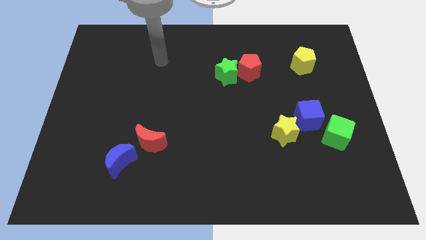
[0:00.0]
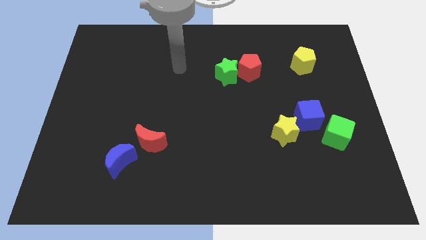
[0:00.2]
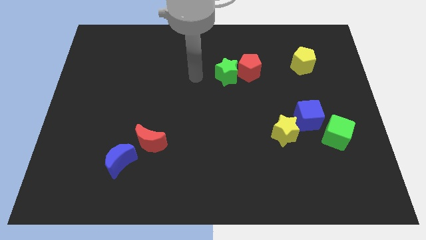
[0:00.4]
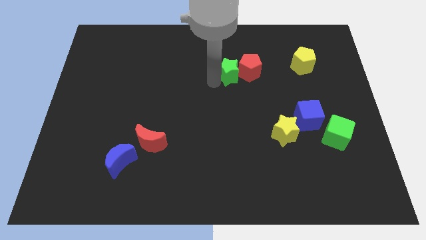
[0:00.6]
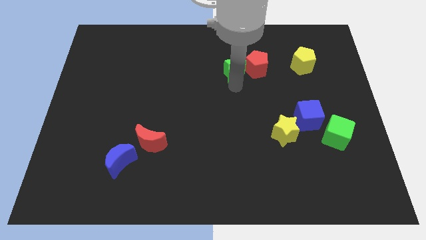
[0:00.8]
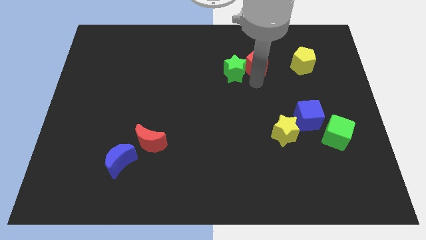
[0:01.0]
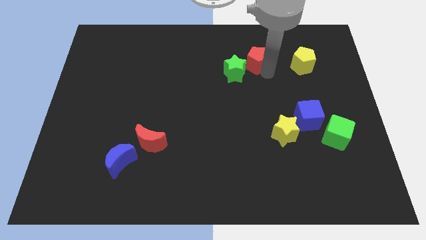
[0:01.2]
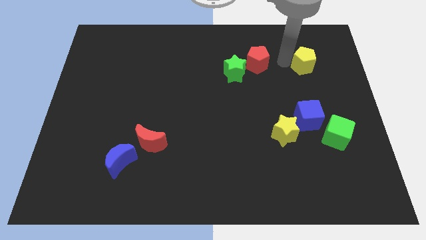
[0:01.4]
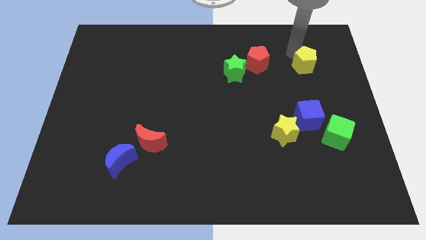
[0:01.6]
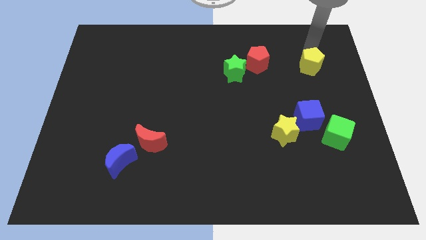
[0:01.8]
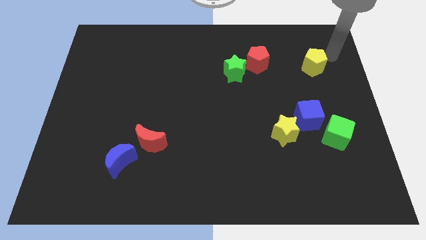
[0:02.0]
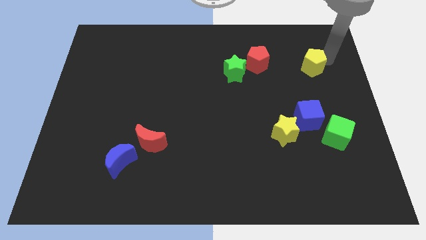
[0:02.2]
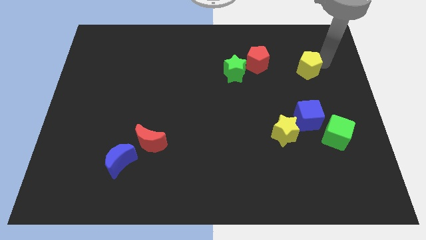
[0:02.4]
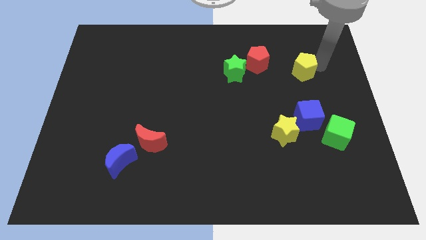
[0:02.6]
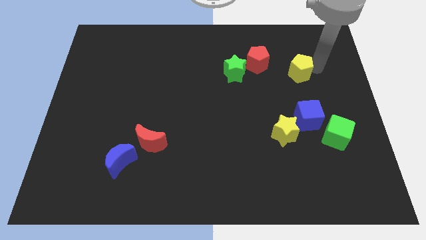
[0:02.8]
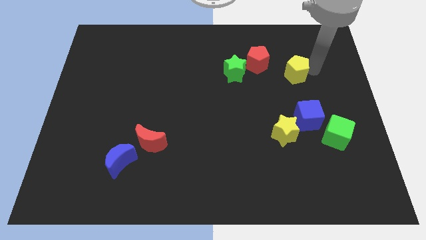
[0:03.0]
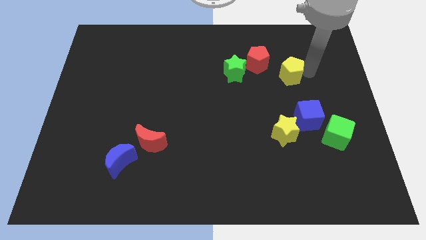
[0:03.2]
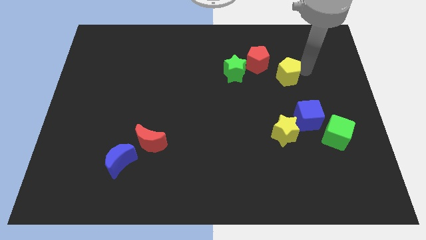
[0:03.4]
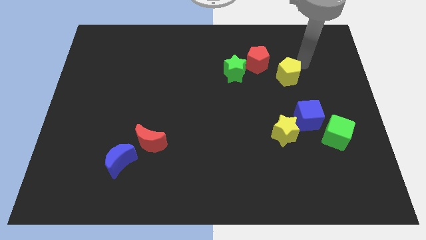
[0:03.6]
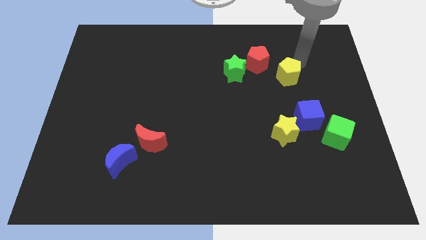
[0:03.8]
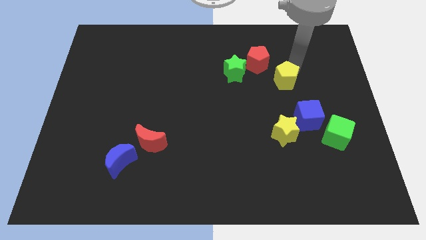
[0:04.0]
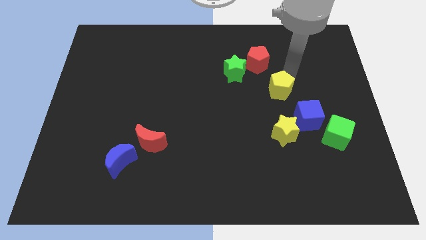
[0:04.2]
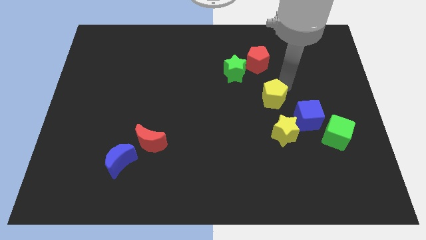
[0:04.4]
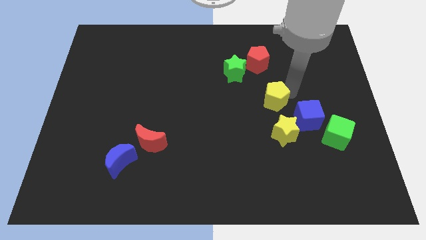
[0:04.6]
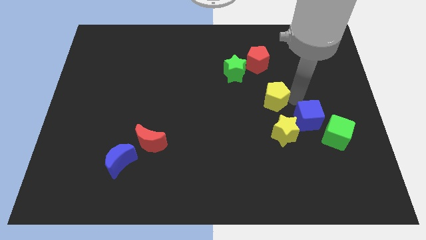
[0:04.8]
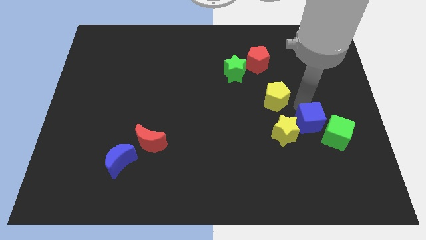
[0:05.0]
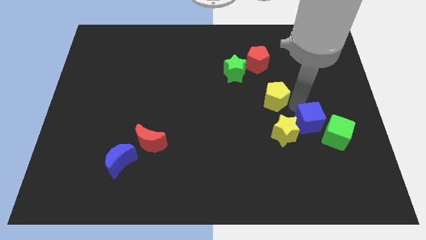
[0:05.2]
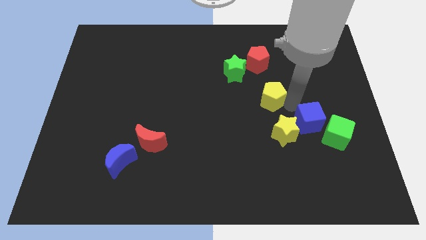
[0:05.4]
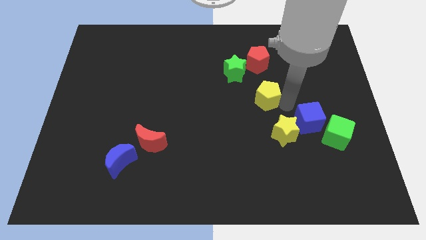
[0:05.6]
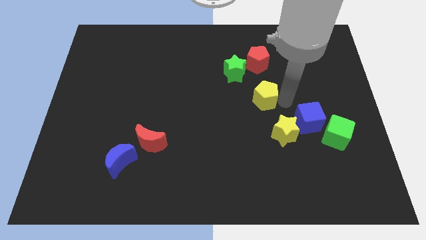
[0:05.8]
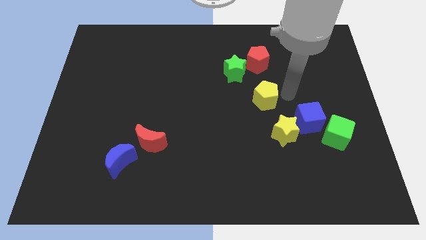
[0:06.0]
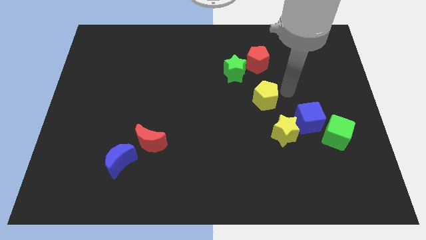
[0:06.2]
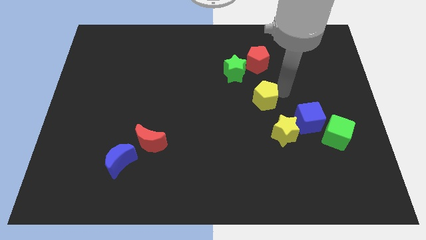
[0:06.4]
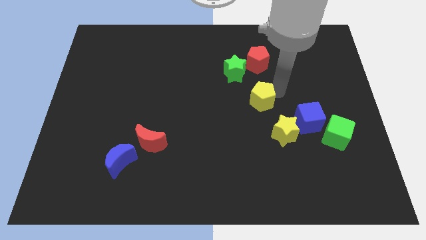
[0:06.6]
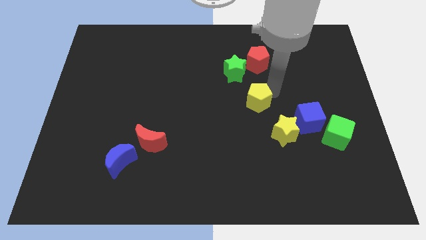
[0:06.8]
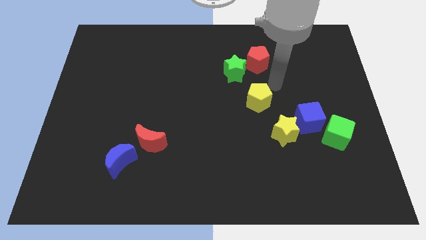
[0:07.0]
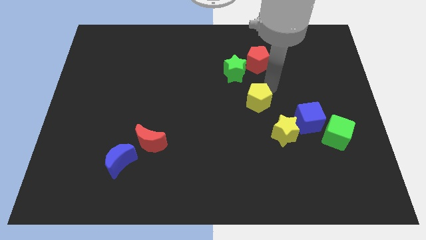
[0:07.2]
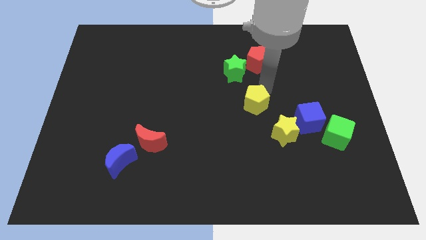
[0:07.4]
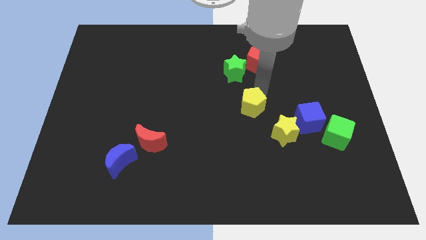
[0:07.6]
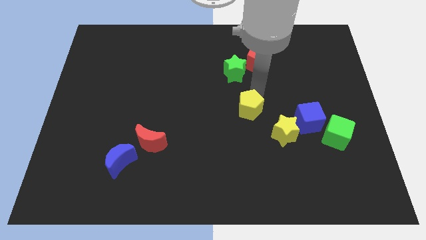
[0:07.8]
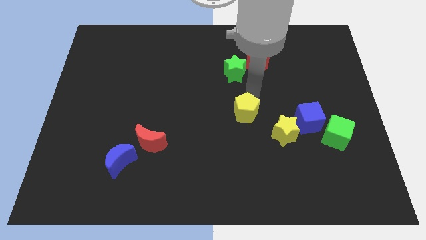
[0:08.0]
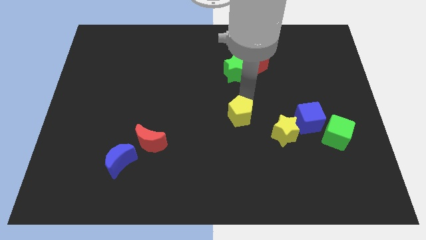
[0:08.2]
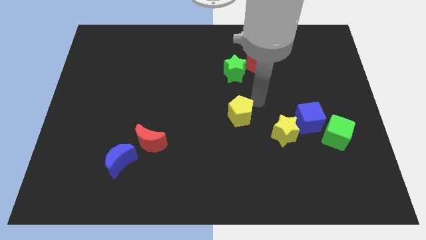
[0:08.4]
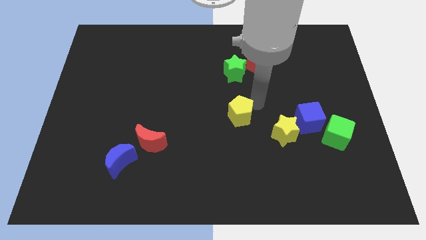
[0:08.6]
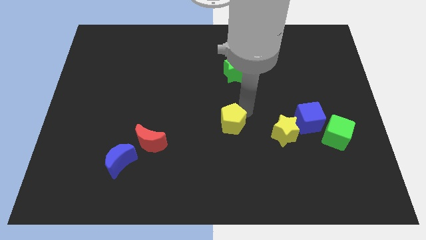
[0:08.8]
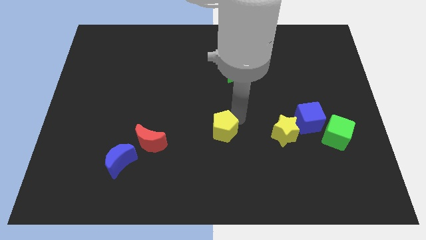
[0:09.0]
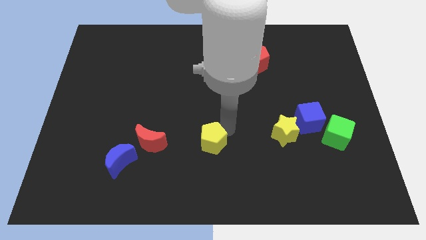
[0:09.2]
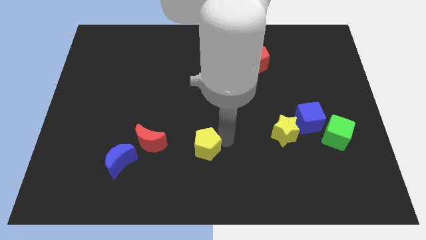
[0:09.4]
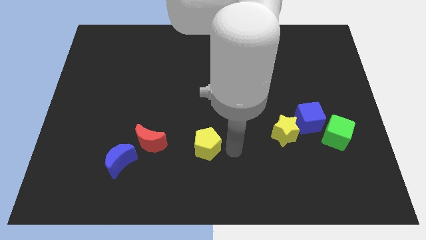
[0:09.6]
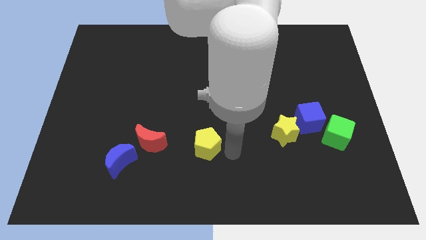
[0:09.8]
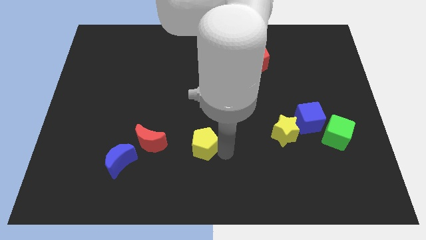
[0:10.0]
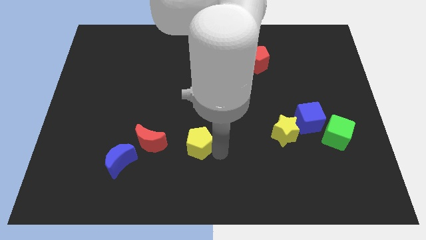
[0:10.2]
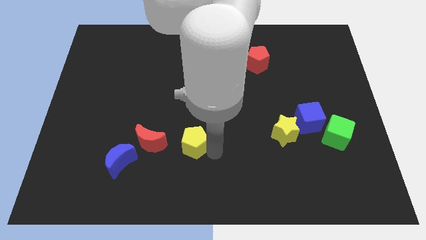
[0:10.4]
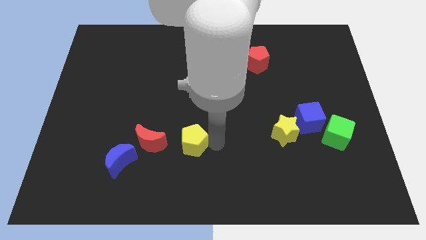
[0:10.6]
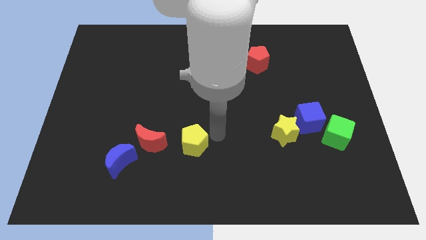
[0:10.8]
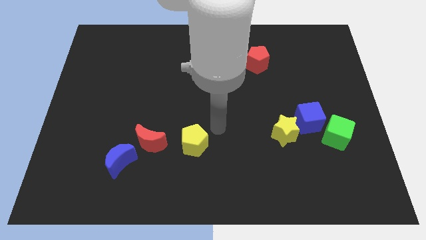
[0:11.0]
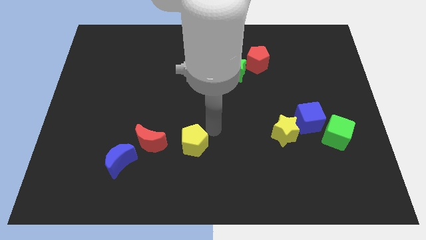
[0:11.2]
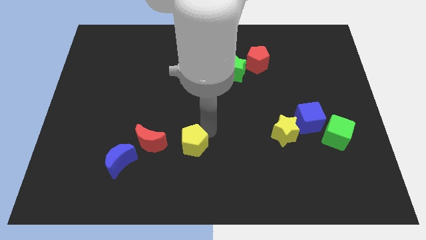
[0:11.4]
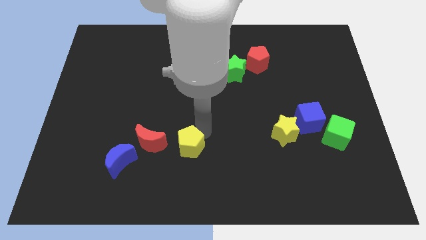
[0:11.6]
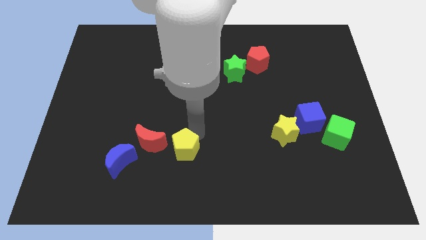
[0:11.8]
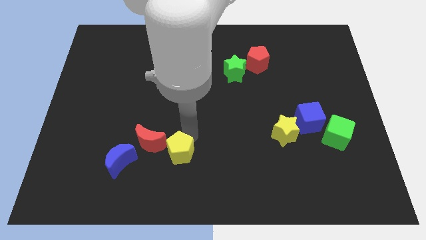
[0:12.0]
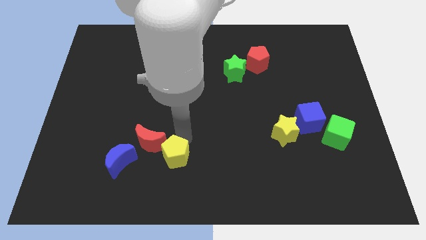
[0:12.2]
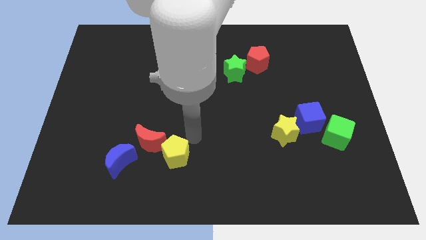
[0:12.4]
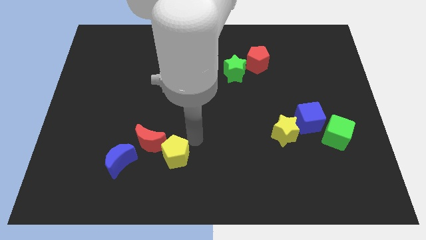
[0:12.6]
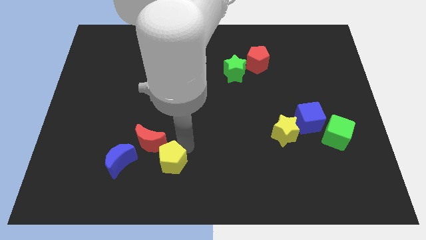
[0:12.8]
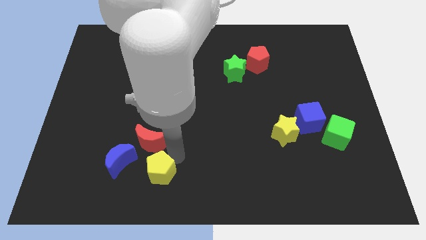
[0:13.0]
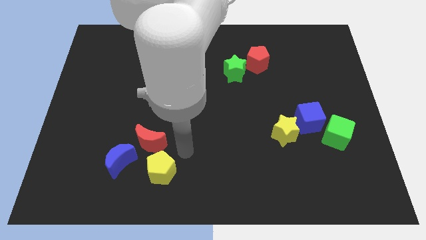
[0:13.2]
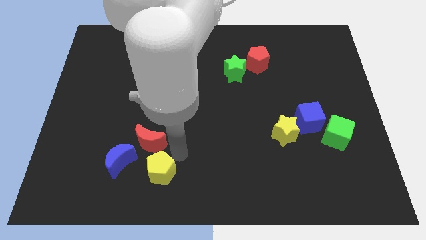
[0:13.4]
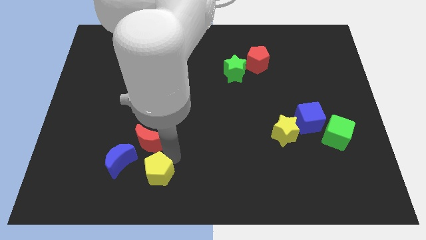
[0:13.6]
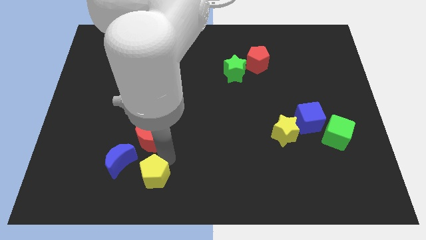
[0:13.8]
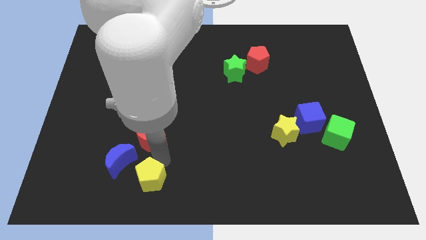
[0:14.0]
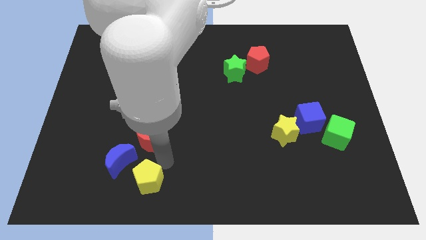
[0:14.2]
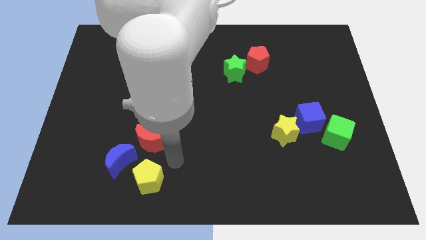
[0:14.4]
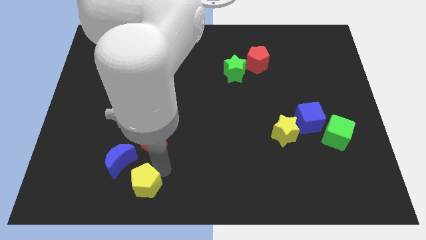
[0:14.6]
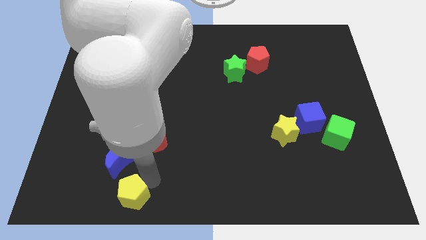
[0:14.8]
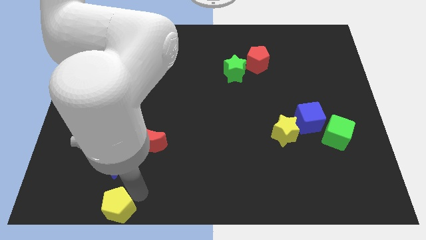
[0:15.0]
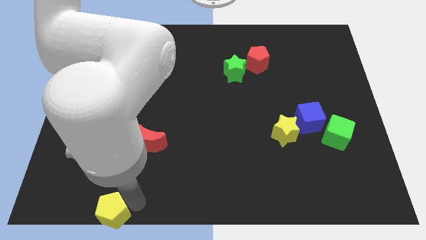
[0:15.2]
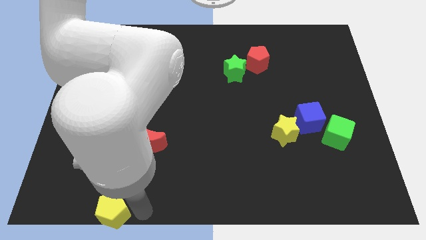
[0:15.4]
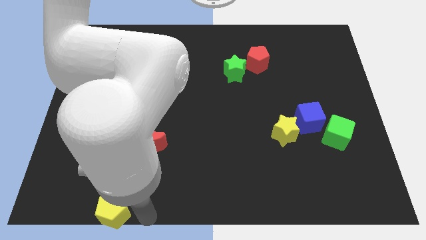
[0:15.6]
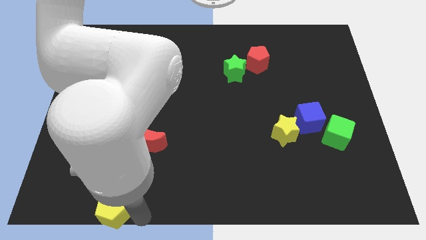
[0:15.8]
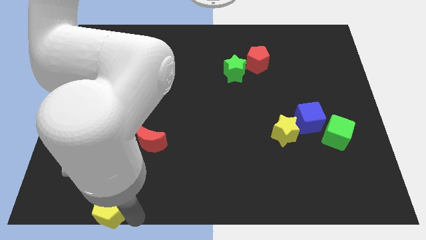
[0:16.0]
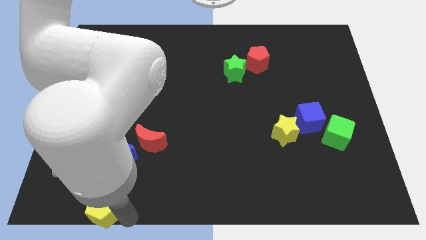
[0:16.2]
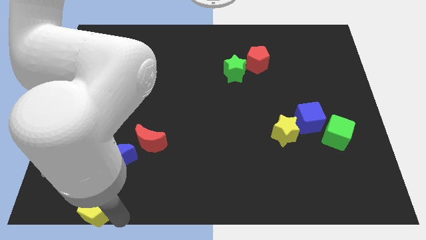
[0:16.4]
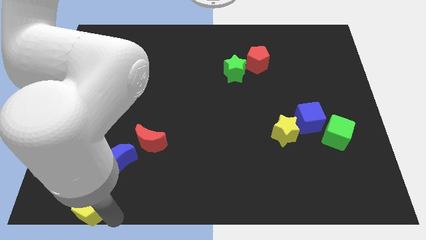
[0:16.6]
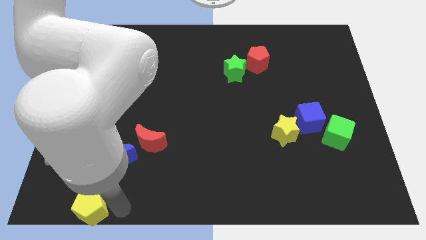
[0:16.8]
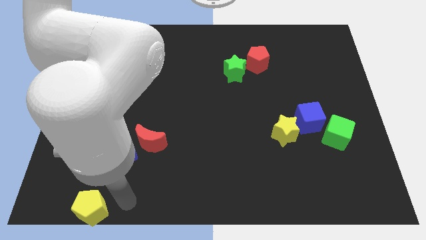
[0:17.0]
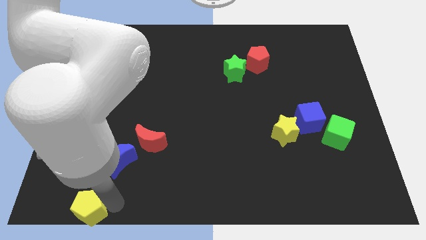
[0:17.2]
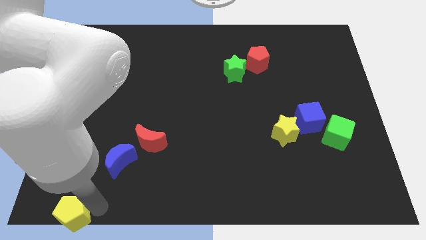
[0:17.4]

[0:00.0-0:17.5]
slide the yellow pentagon to the bottom left
